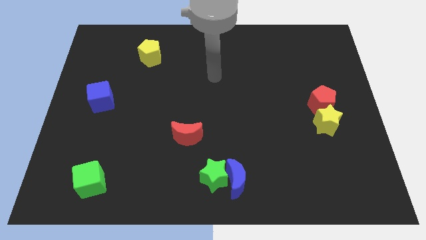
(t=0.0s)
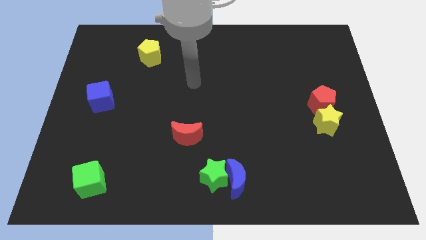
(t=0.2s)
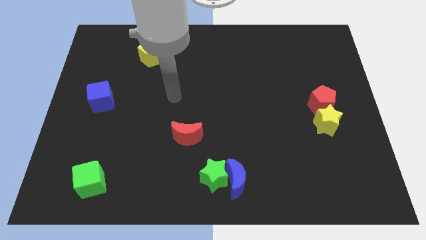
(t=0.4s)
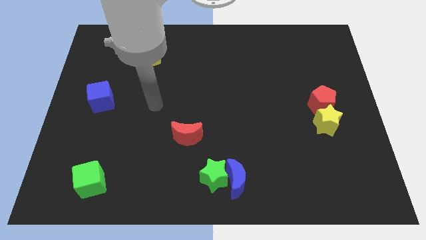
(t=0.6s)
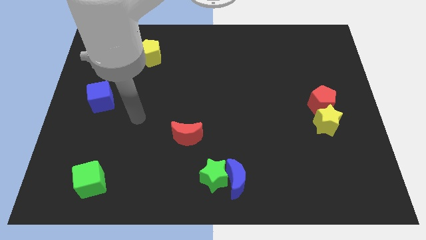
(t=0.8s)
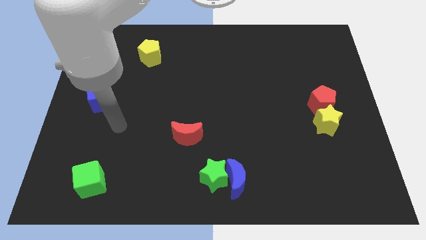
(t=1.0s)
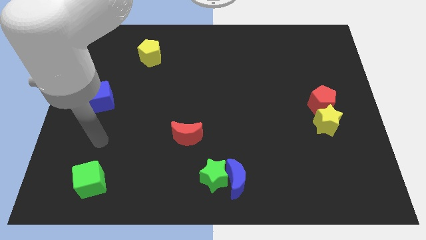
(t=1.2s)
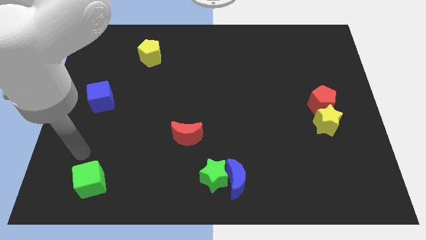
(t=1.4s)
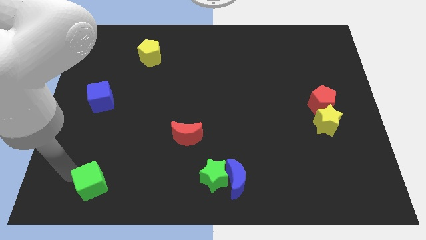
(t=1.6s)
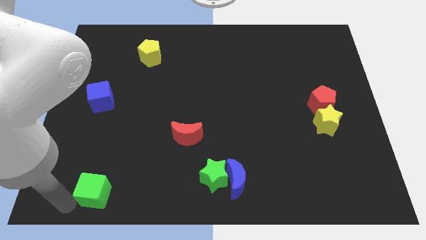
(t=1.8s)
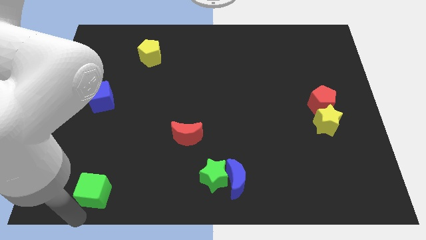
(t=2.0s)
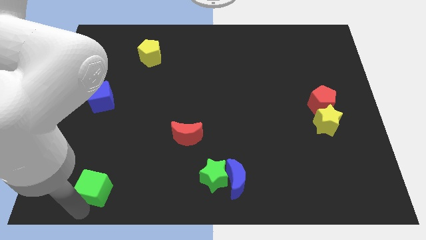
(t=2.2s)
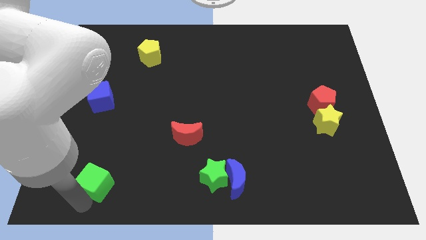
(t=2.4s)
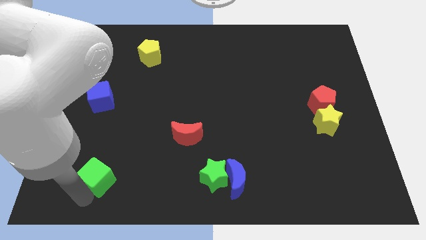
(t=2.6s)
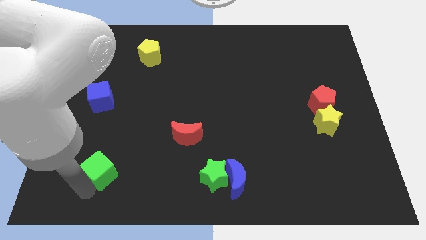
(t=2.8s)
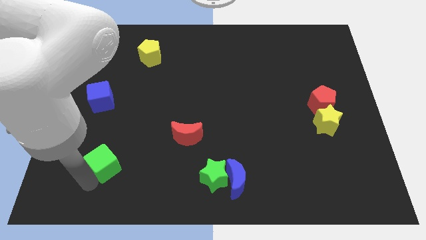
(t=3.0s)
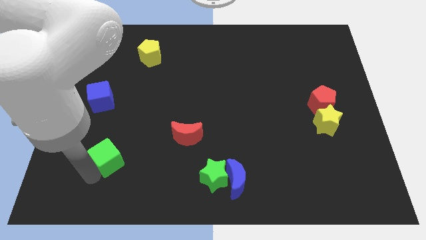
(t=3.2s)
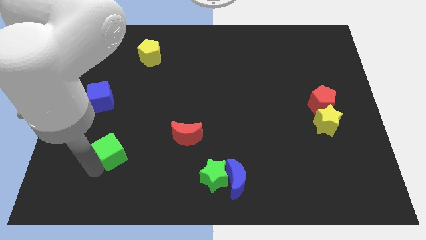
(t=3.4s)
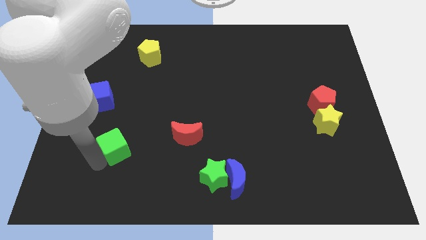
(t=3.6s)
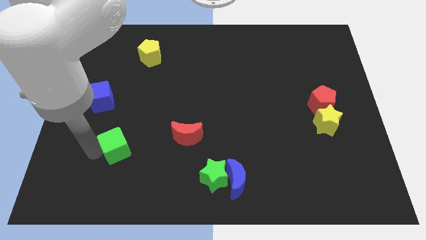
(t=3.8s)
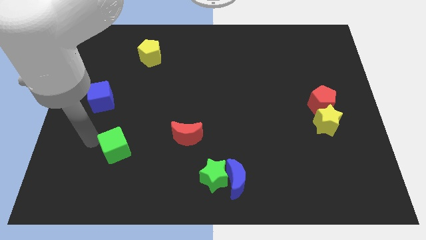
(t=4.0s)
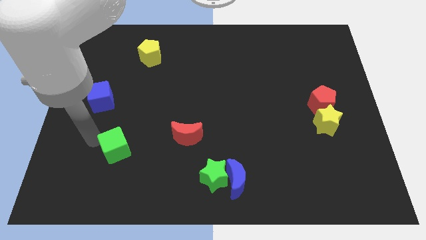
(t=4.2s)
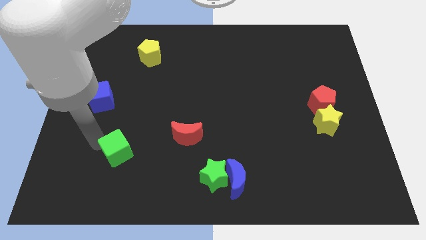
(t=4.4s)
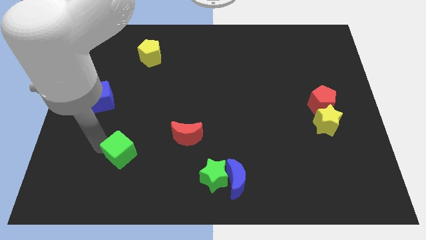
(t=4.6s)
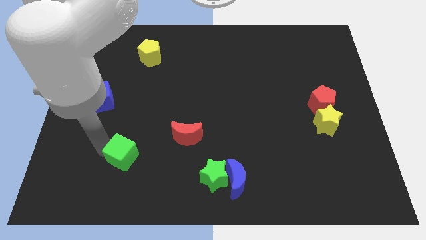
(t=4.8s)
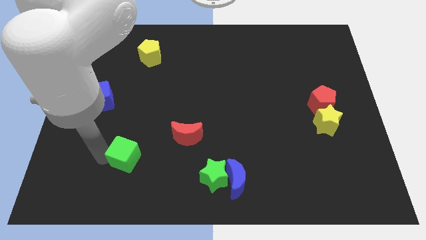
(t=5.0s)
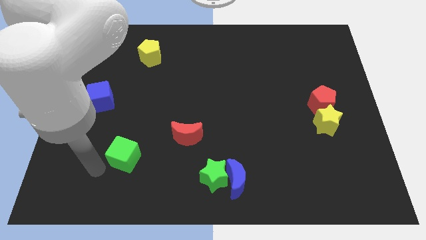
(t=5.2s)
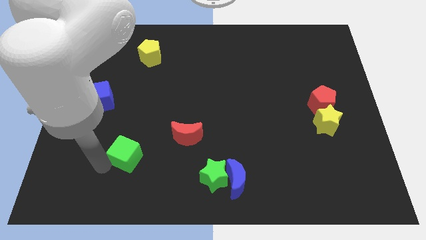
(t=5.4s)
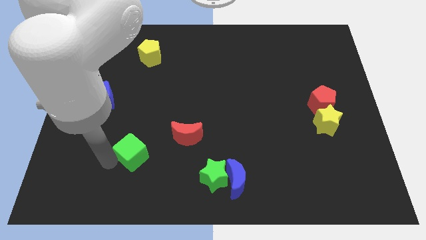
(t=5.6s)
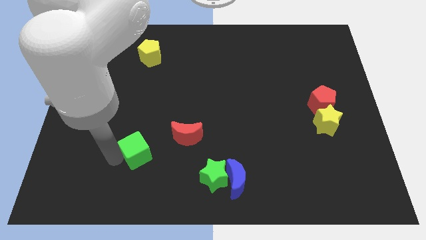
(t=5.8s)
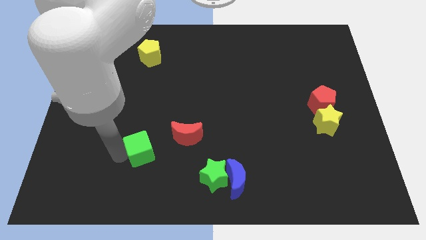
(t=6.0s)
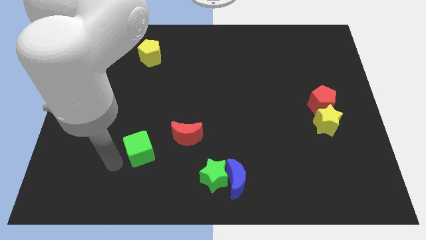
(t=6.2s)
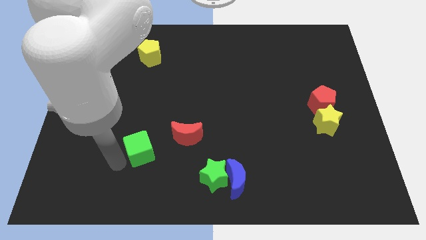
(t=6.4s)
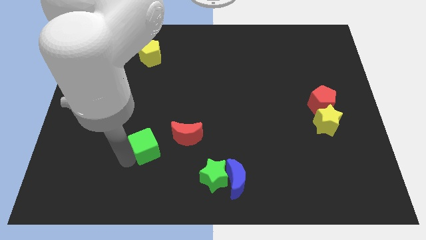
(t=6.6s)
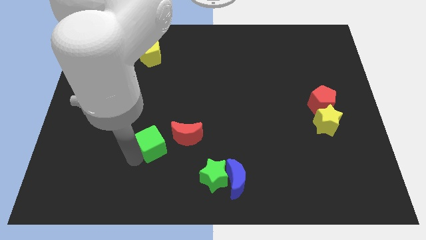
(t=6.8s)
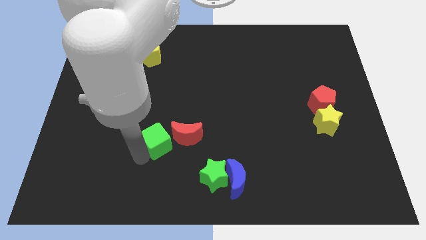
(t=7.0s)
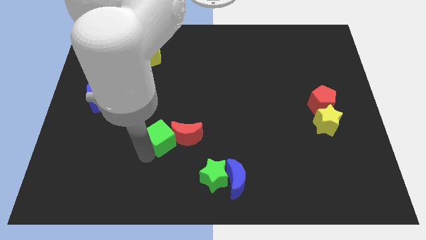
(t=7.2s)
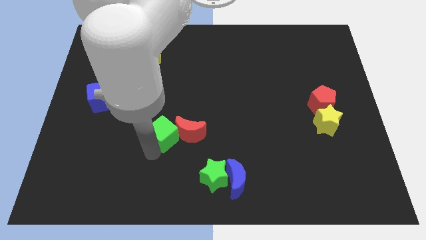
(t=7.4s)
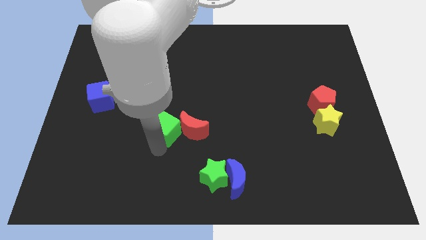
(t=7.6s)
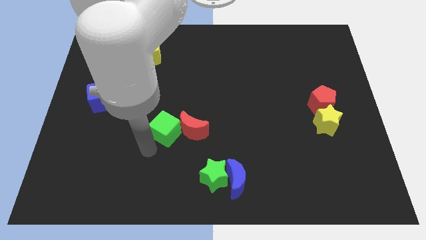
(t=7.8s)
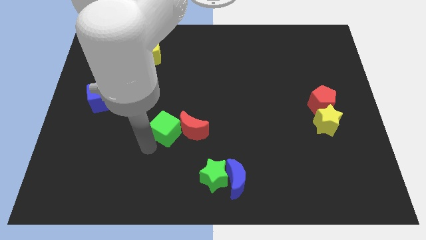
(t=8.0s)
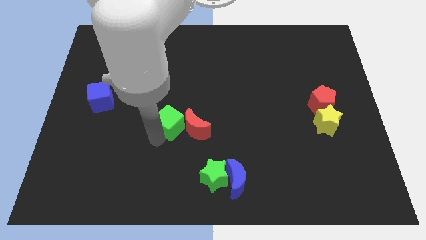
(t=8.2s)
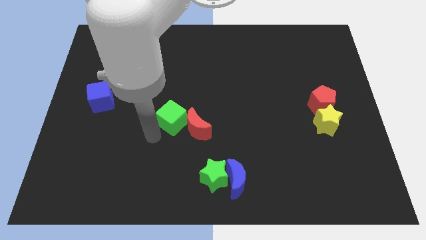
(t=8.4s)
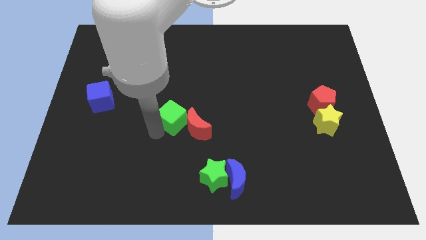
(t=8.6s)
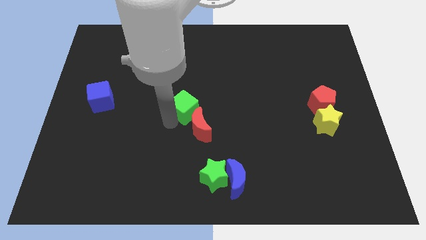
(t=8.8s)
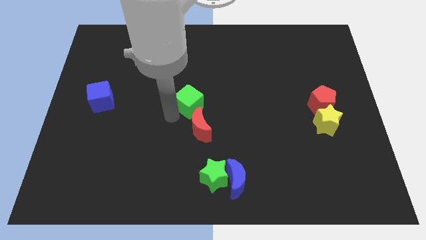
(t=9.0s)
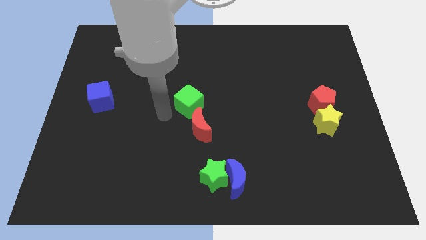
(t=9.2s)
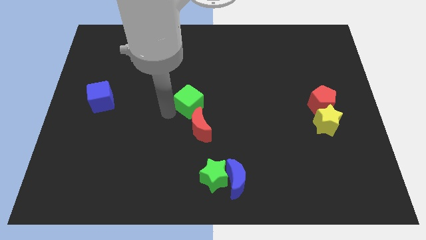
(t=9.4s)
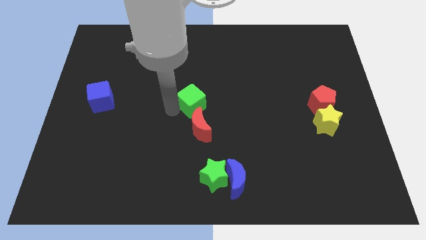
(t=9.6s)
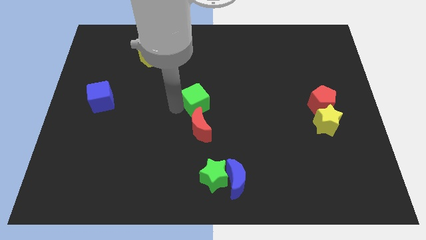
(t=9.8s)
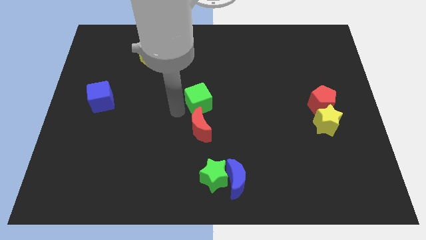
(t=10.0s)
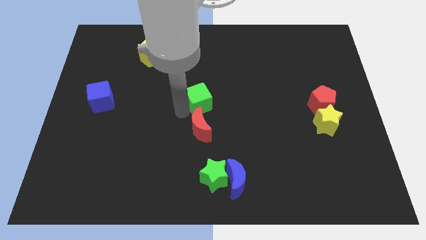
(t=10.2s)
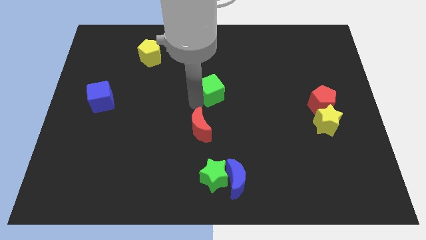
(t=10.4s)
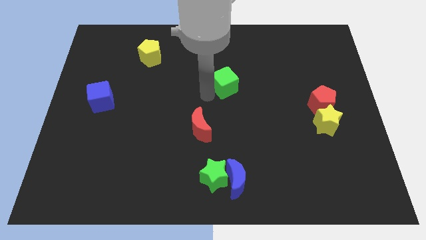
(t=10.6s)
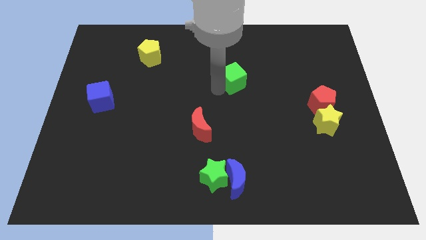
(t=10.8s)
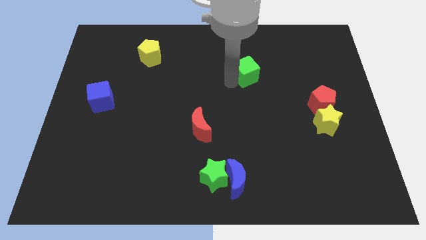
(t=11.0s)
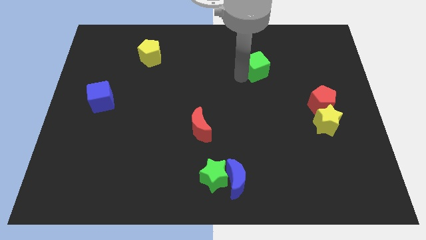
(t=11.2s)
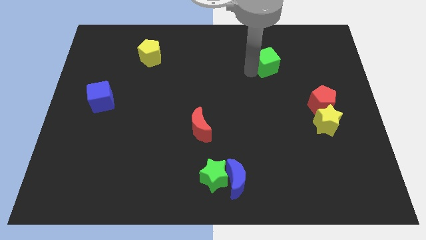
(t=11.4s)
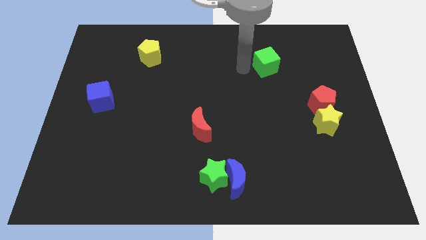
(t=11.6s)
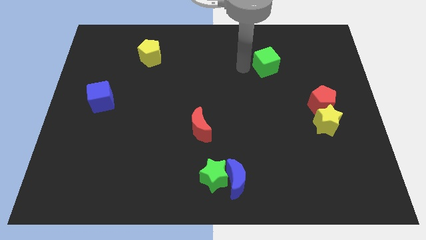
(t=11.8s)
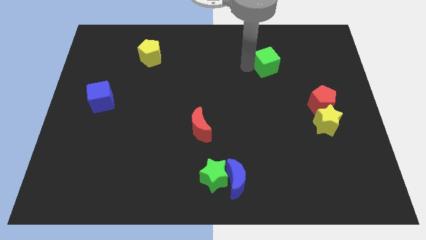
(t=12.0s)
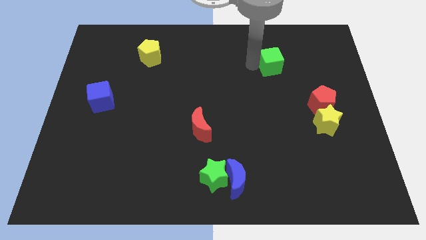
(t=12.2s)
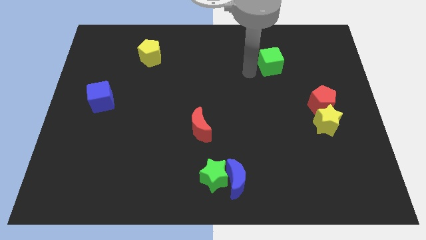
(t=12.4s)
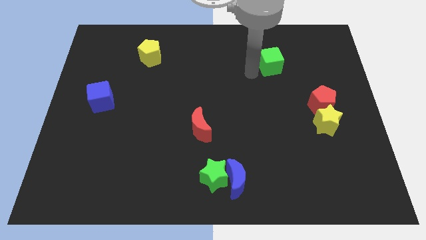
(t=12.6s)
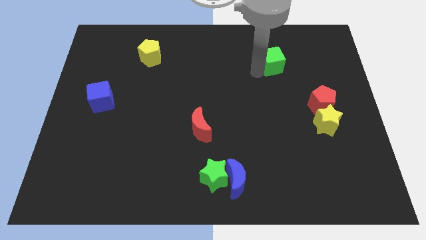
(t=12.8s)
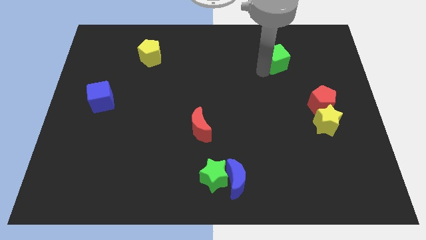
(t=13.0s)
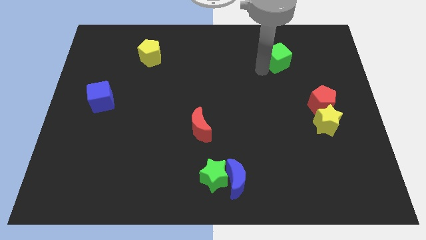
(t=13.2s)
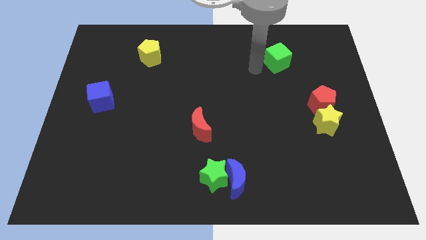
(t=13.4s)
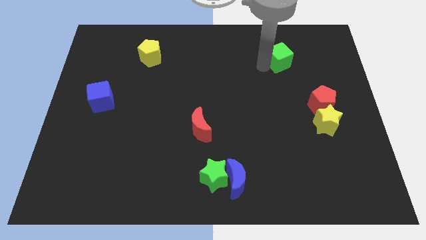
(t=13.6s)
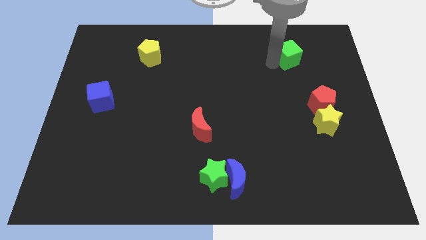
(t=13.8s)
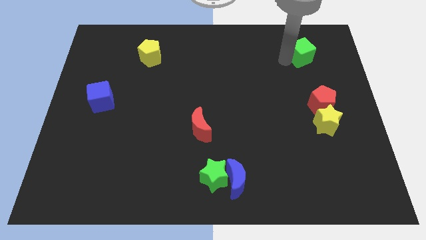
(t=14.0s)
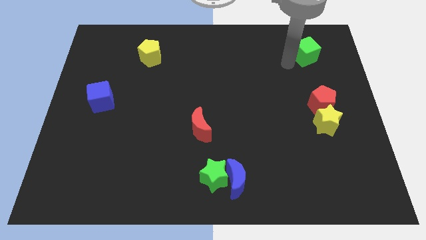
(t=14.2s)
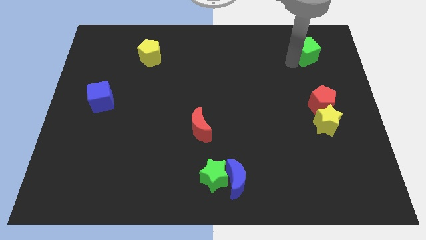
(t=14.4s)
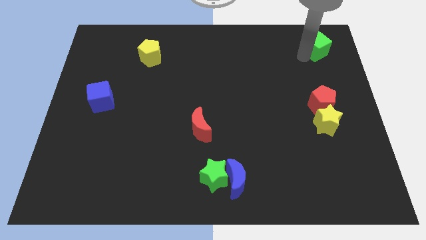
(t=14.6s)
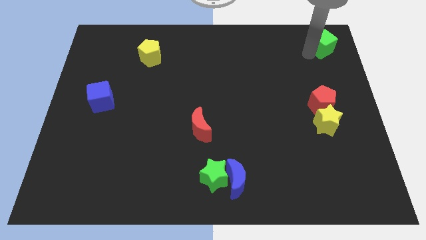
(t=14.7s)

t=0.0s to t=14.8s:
slide the green cube to the top right
